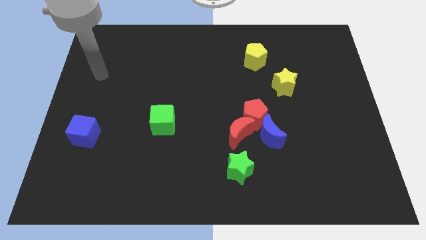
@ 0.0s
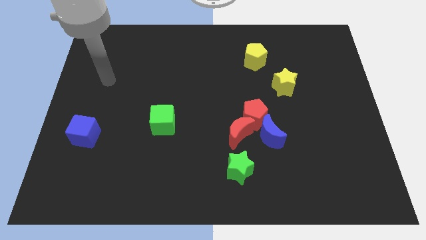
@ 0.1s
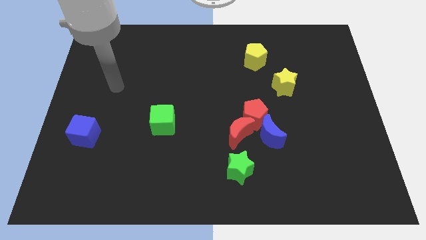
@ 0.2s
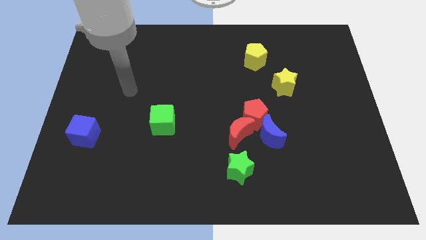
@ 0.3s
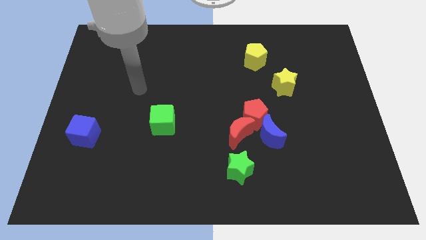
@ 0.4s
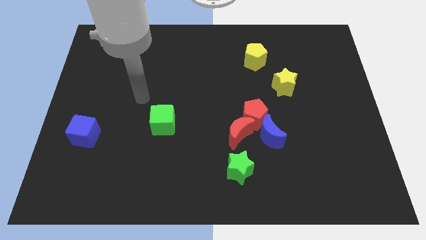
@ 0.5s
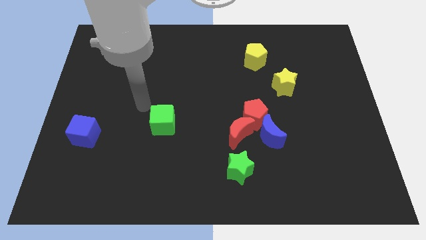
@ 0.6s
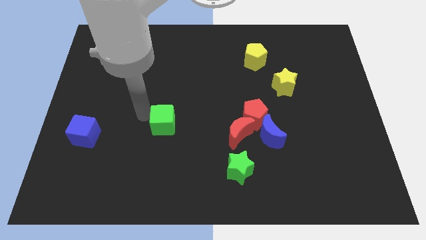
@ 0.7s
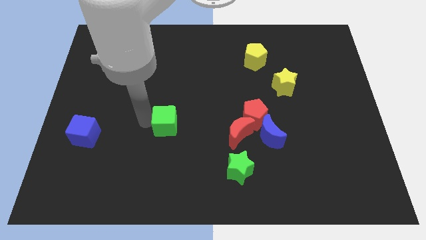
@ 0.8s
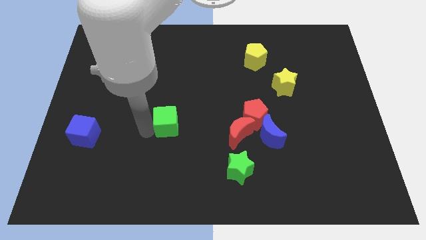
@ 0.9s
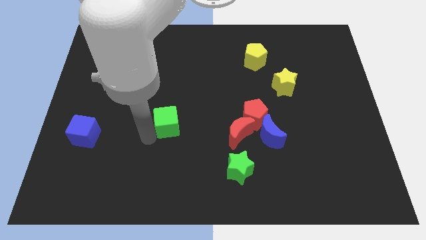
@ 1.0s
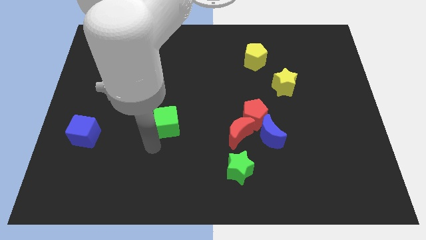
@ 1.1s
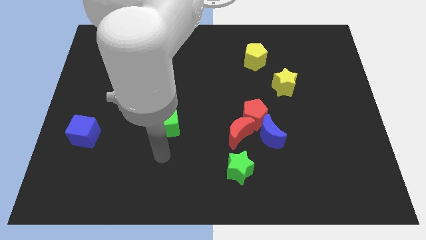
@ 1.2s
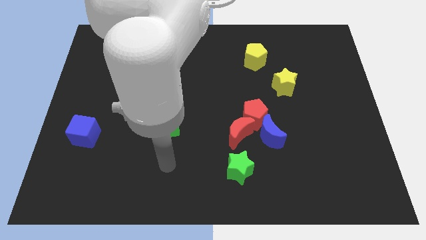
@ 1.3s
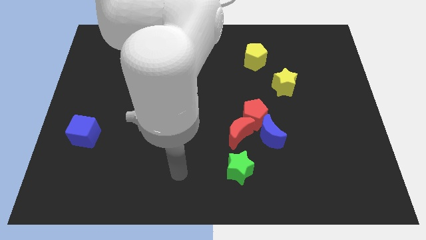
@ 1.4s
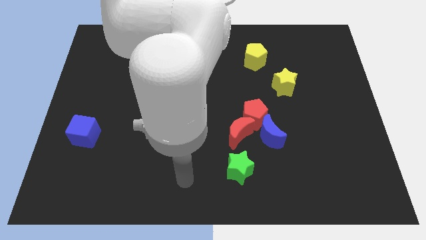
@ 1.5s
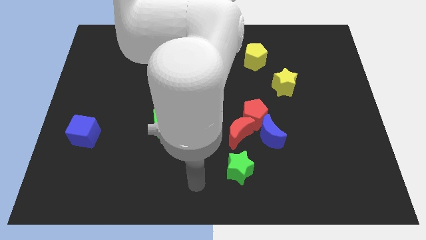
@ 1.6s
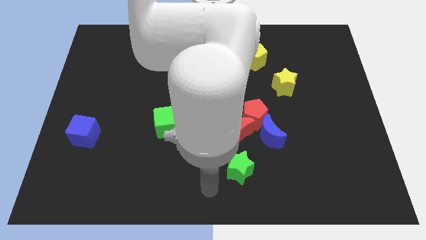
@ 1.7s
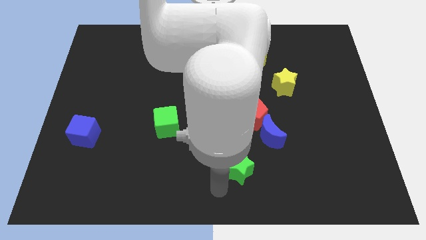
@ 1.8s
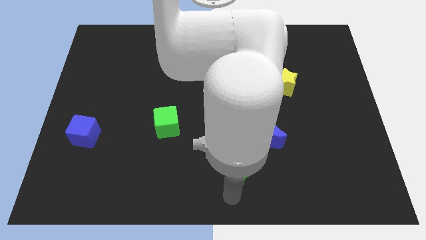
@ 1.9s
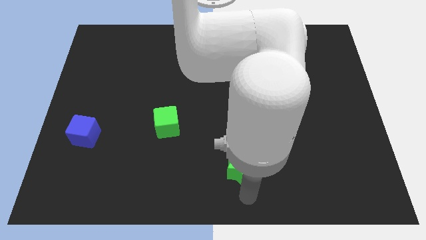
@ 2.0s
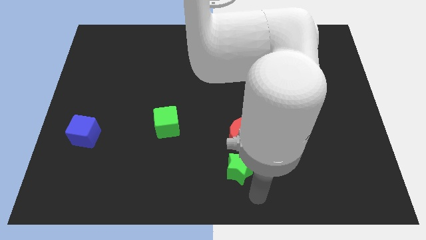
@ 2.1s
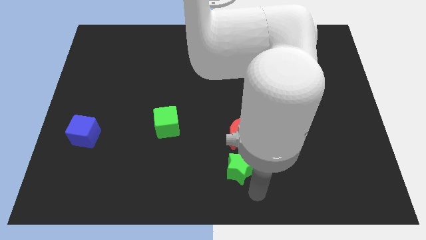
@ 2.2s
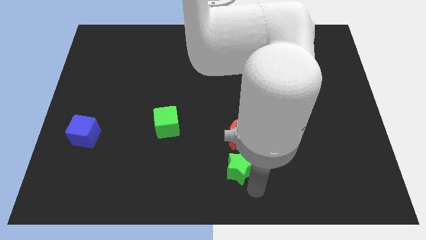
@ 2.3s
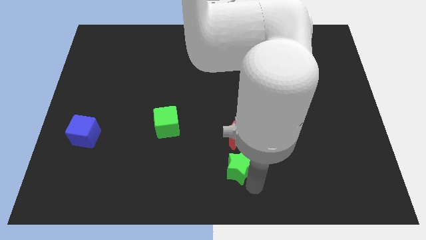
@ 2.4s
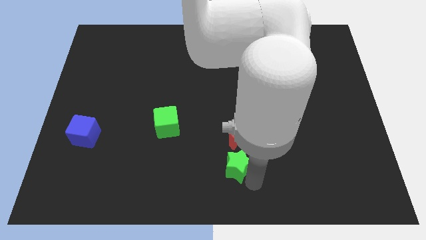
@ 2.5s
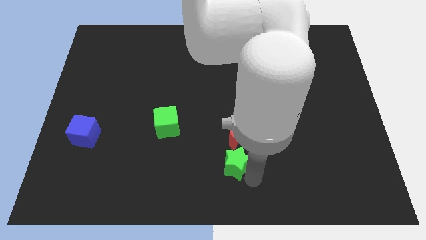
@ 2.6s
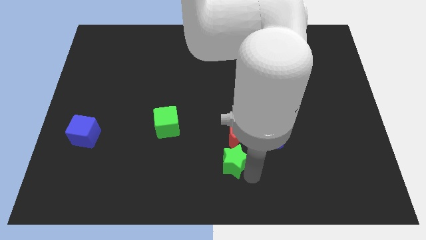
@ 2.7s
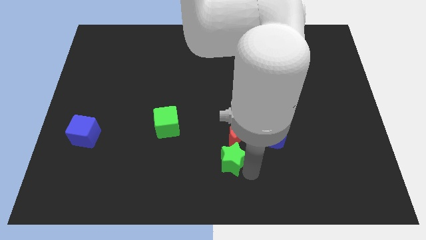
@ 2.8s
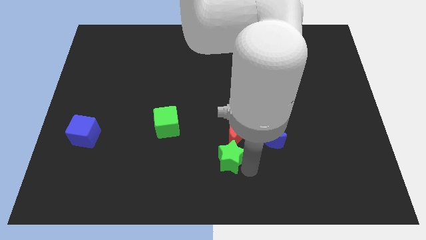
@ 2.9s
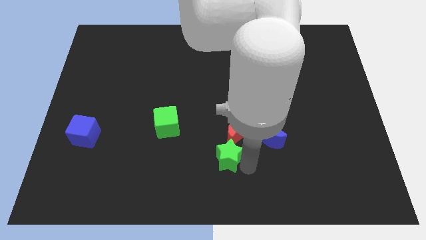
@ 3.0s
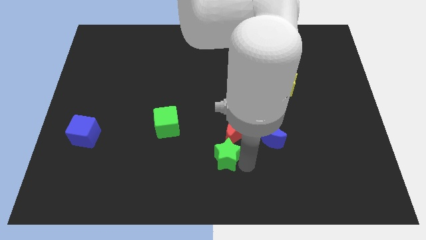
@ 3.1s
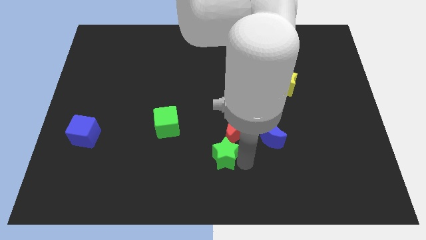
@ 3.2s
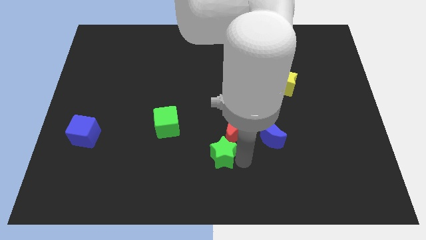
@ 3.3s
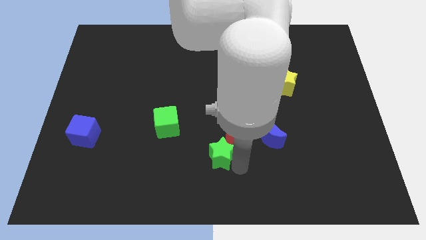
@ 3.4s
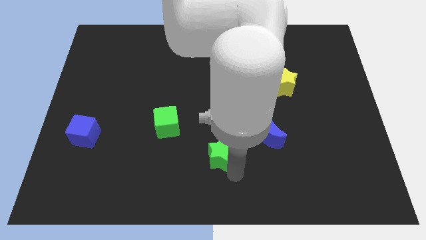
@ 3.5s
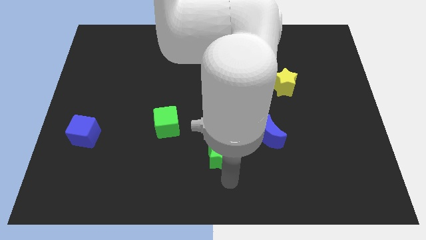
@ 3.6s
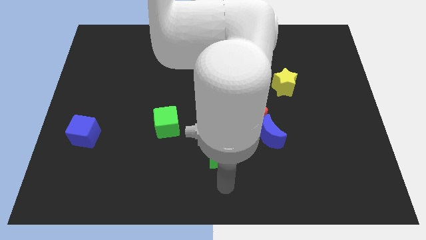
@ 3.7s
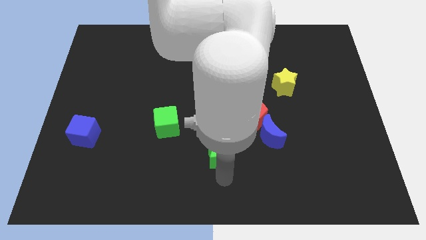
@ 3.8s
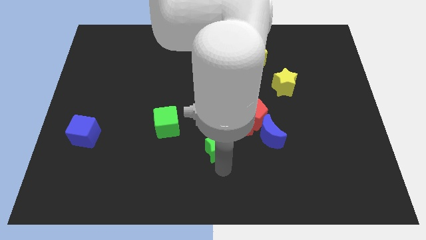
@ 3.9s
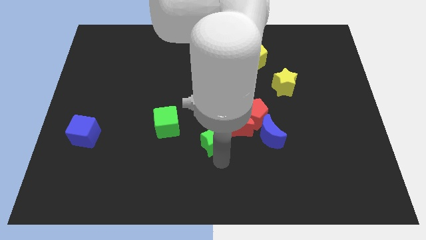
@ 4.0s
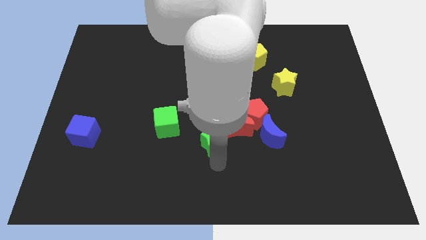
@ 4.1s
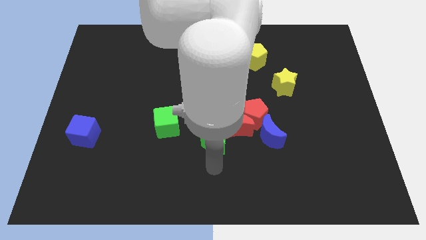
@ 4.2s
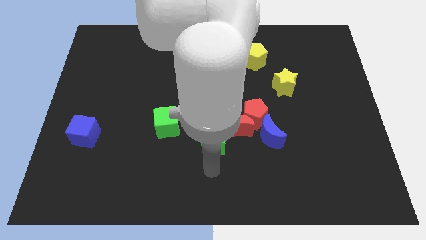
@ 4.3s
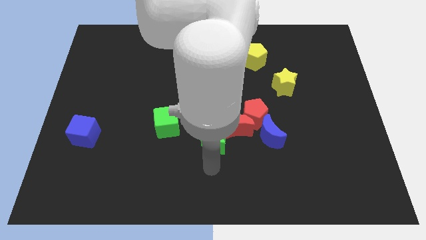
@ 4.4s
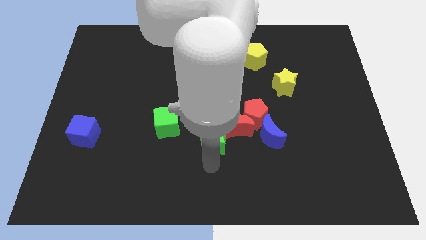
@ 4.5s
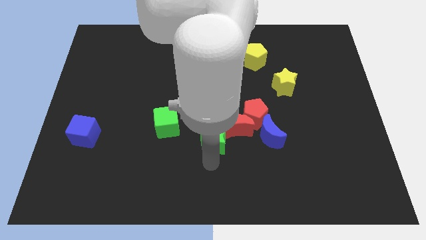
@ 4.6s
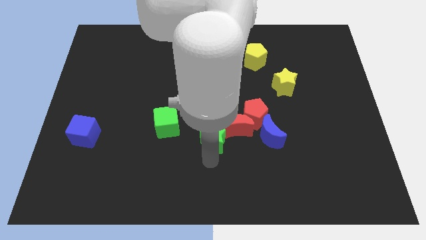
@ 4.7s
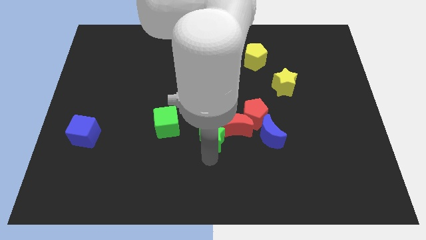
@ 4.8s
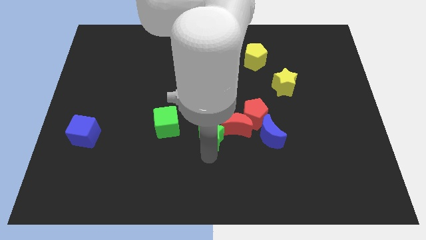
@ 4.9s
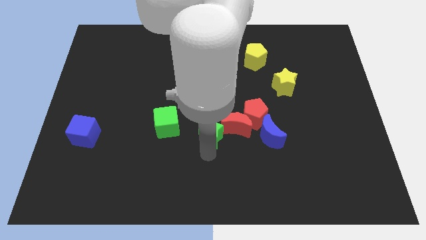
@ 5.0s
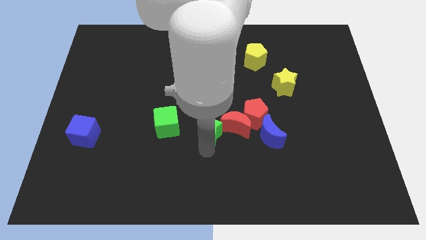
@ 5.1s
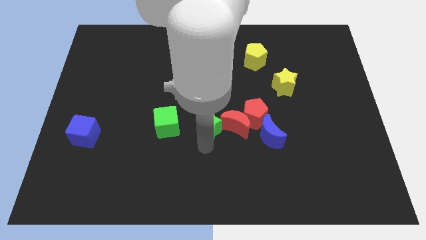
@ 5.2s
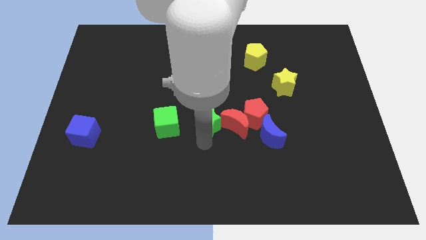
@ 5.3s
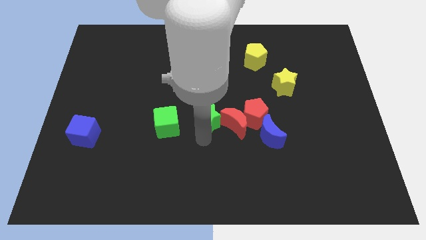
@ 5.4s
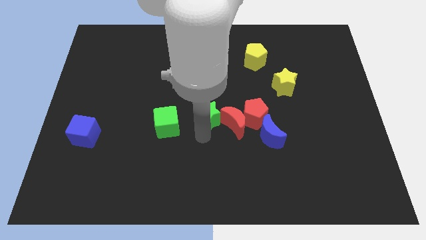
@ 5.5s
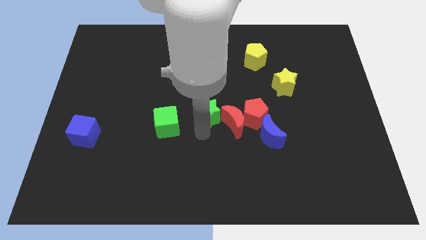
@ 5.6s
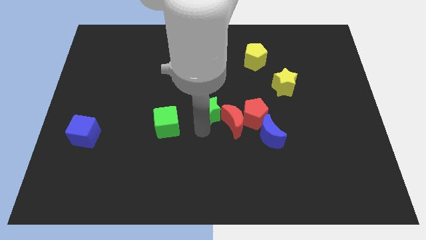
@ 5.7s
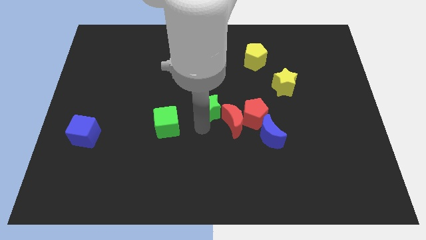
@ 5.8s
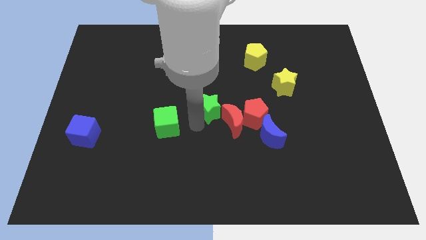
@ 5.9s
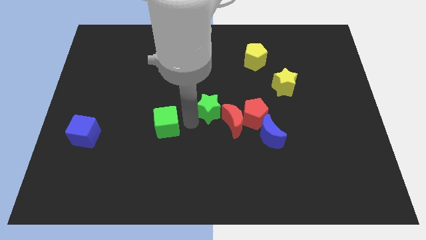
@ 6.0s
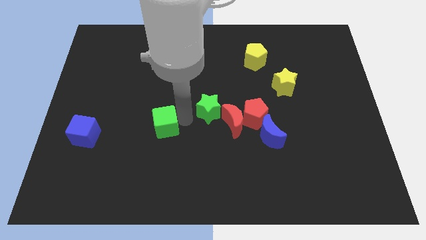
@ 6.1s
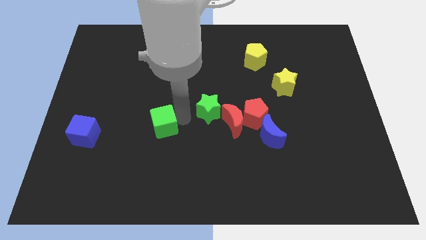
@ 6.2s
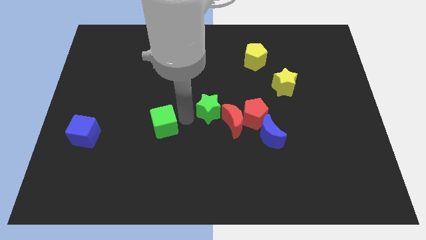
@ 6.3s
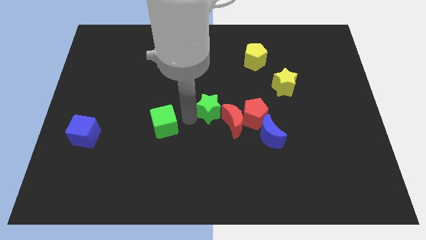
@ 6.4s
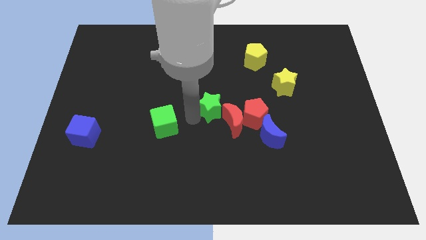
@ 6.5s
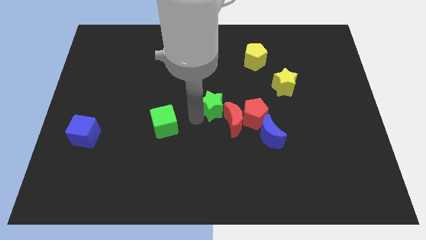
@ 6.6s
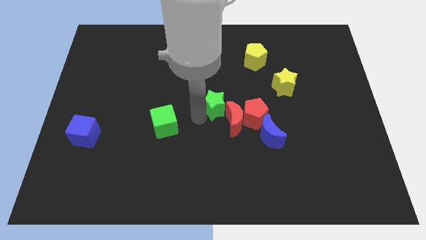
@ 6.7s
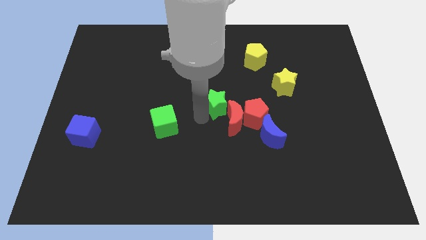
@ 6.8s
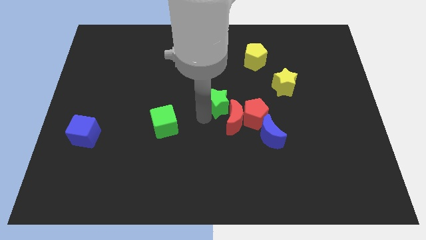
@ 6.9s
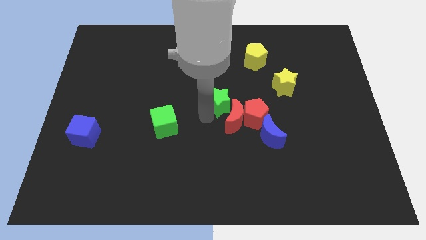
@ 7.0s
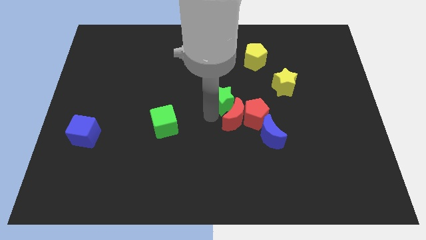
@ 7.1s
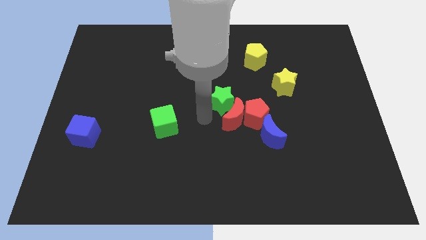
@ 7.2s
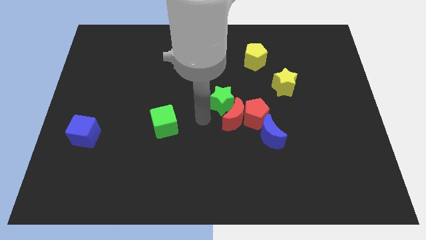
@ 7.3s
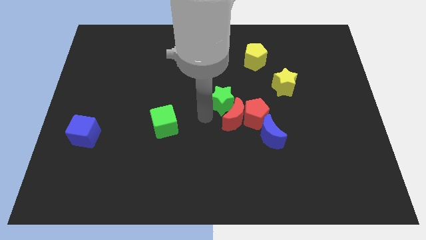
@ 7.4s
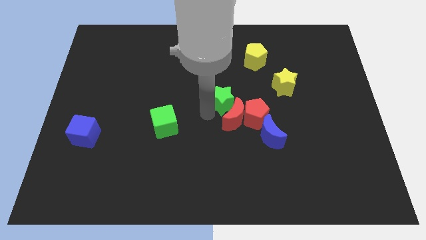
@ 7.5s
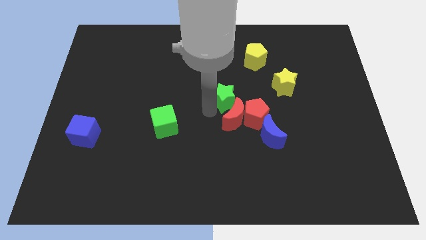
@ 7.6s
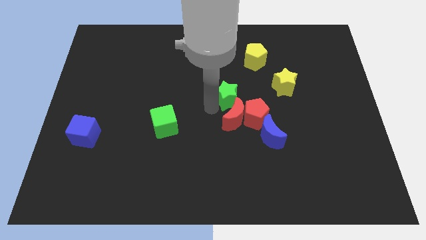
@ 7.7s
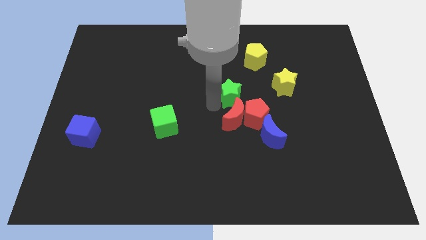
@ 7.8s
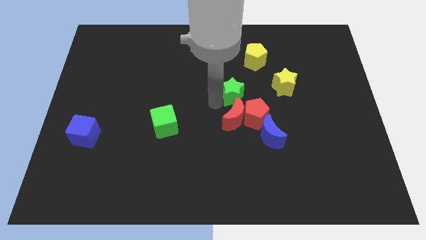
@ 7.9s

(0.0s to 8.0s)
move the green star to the top side of the red pentagon
